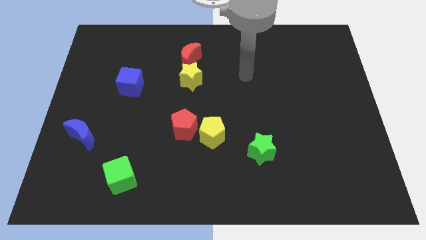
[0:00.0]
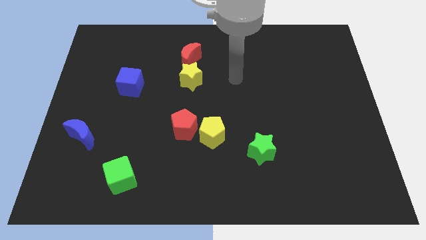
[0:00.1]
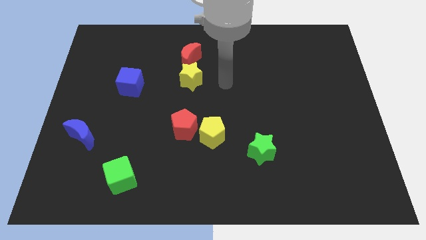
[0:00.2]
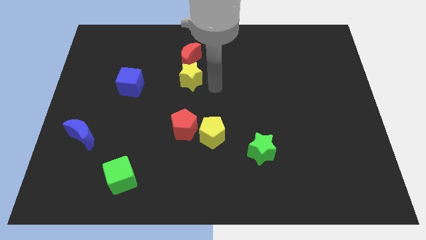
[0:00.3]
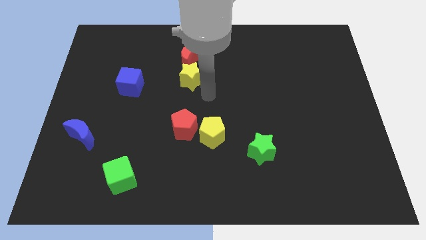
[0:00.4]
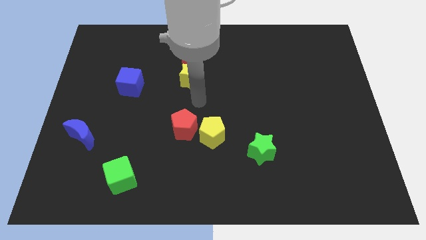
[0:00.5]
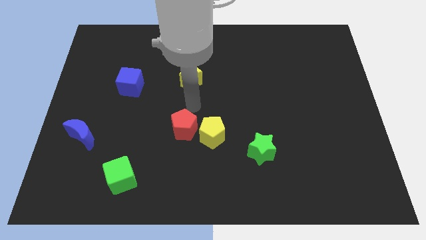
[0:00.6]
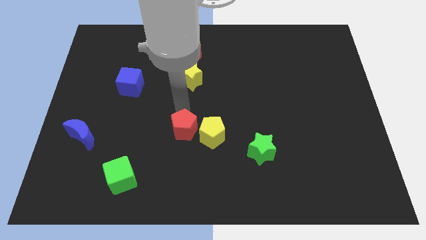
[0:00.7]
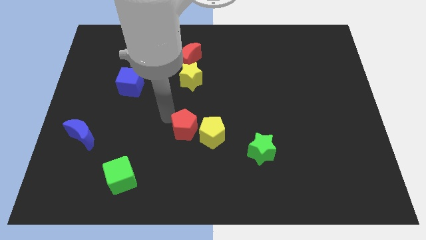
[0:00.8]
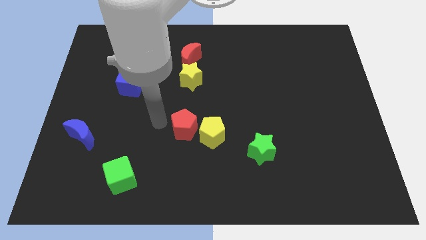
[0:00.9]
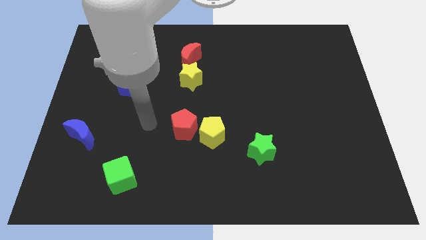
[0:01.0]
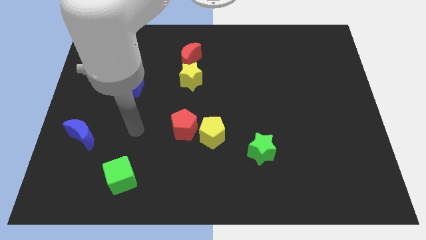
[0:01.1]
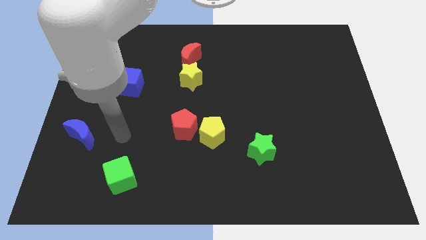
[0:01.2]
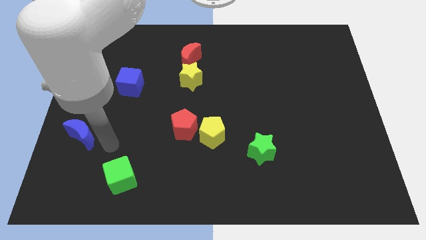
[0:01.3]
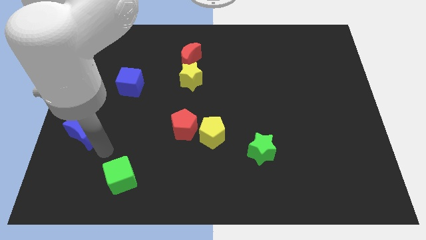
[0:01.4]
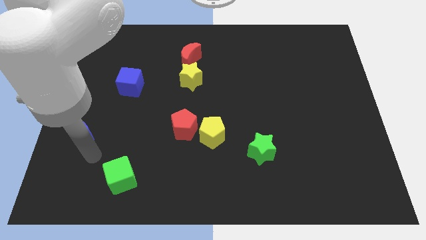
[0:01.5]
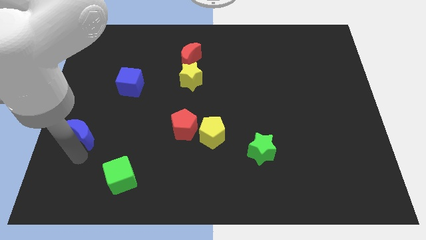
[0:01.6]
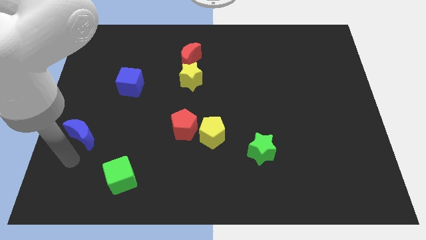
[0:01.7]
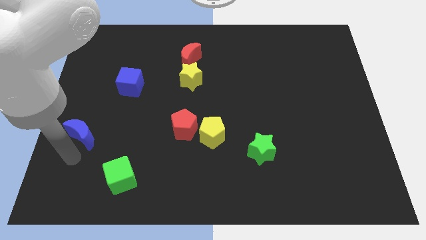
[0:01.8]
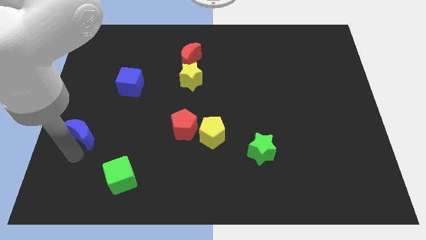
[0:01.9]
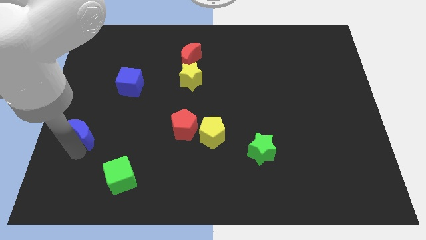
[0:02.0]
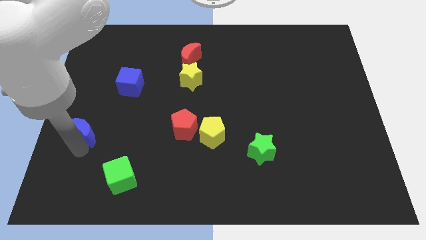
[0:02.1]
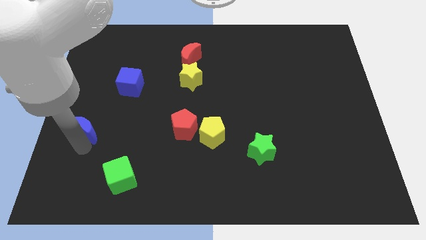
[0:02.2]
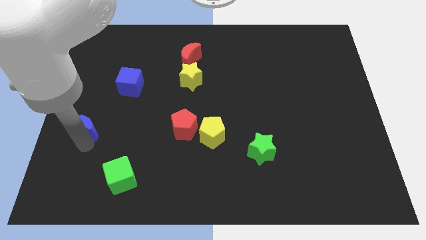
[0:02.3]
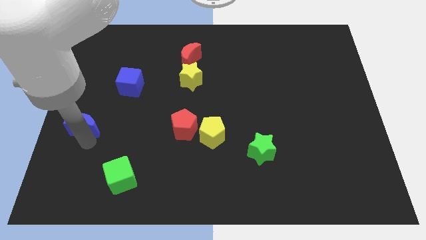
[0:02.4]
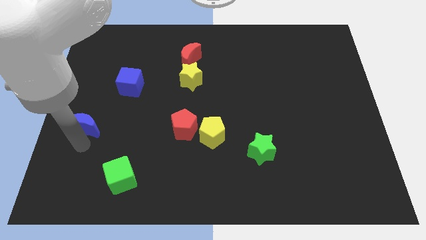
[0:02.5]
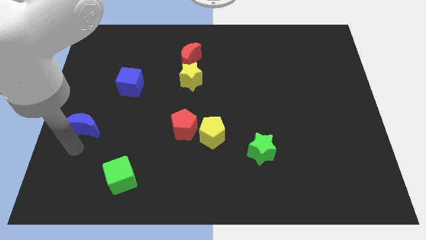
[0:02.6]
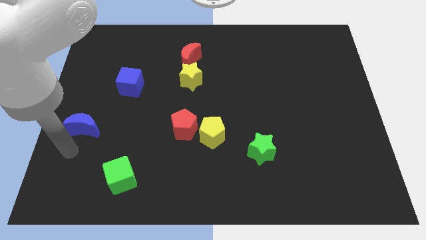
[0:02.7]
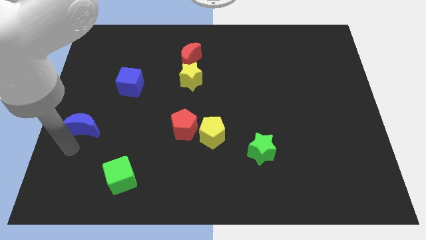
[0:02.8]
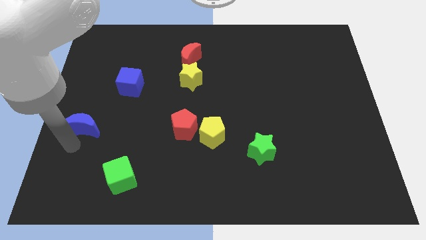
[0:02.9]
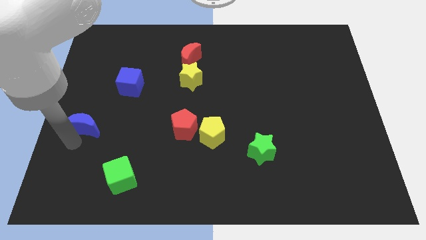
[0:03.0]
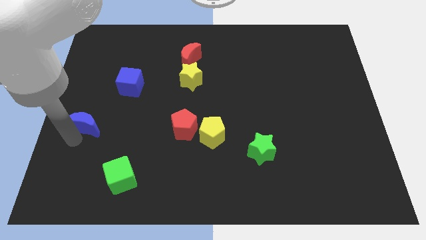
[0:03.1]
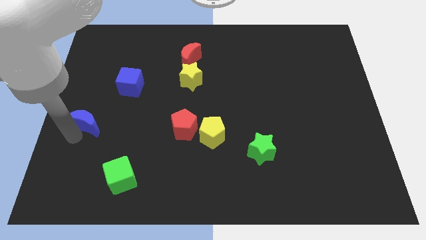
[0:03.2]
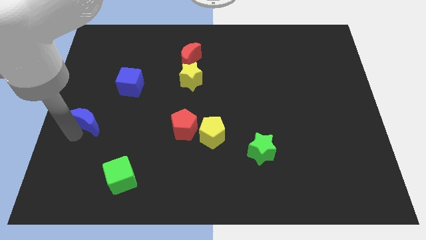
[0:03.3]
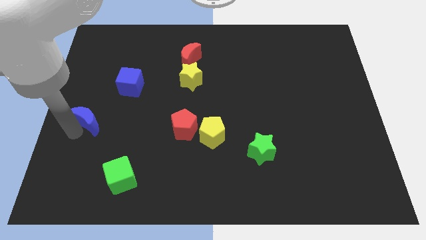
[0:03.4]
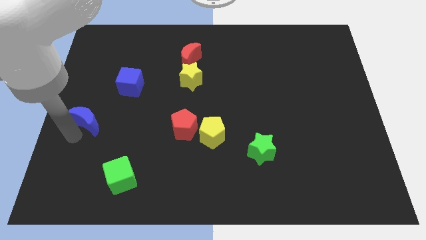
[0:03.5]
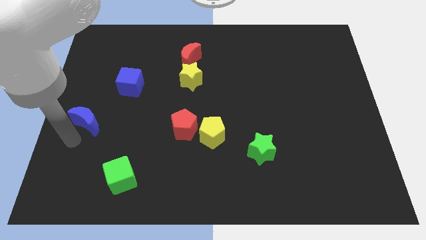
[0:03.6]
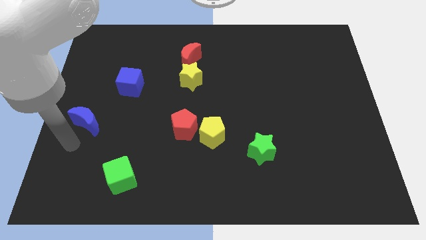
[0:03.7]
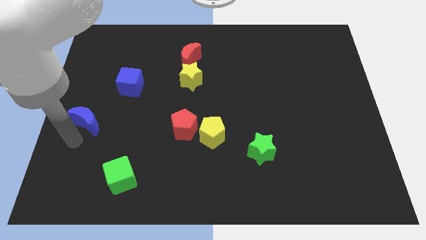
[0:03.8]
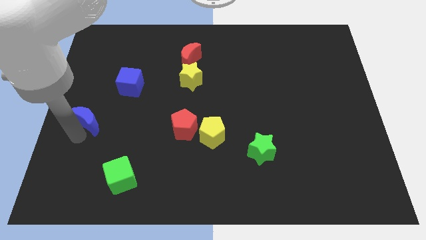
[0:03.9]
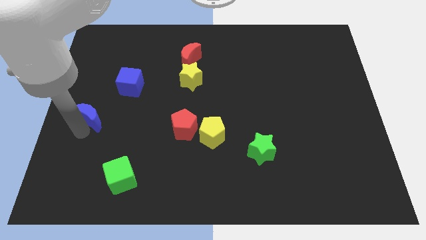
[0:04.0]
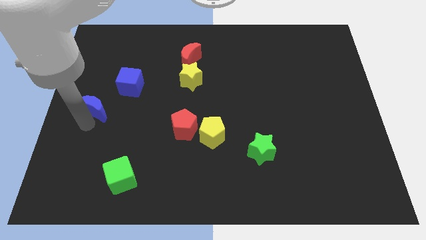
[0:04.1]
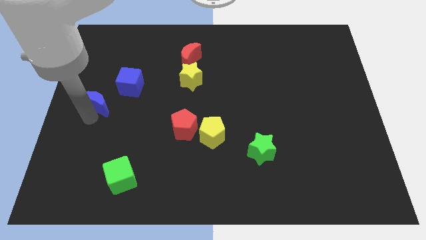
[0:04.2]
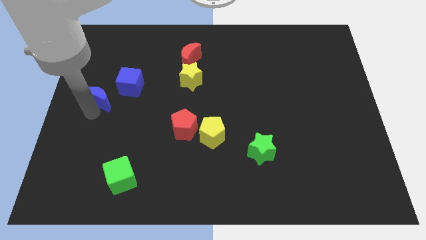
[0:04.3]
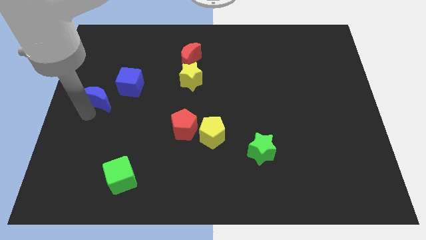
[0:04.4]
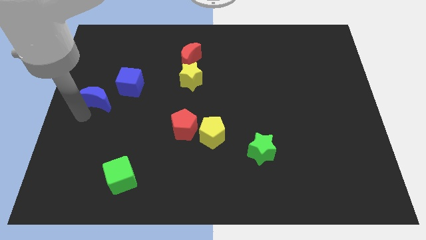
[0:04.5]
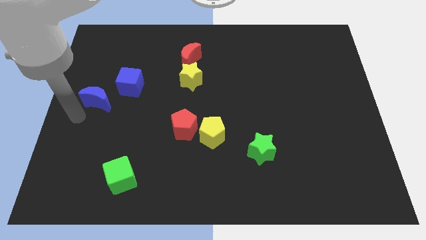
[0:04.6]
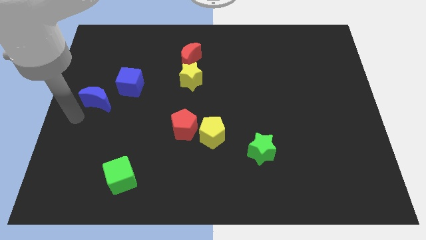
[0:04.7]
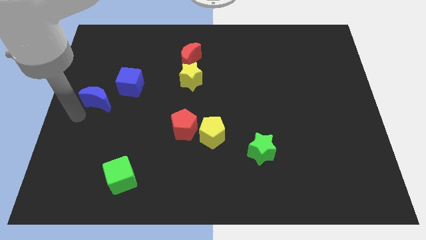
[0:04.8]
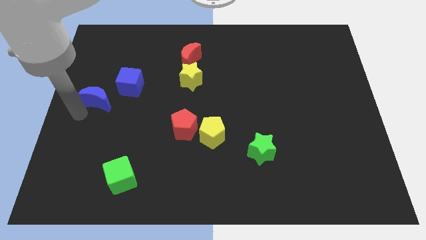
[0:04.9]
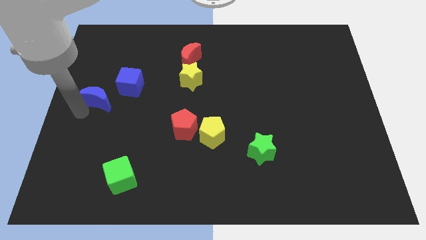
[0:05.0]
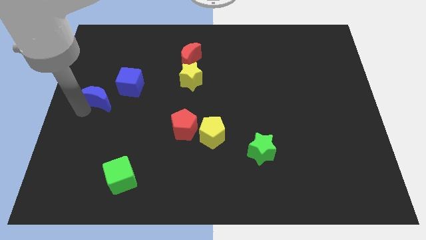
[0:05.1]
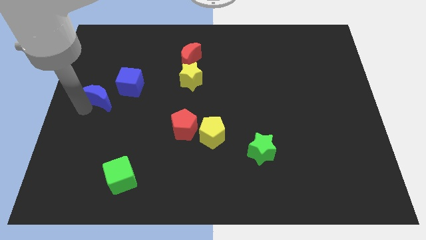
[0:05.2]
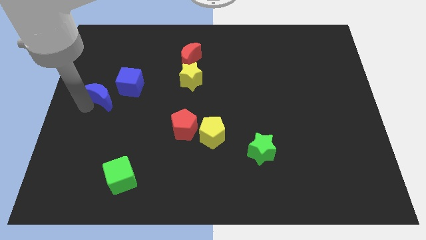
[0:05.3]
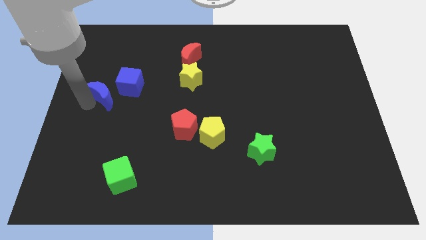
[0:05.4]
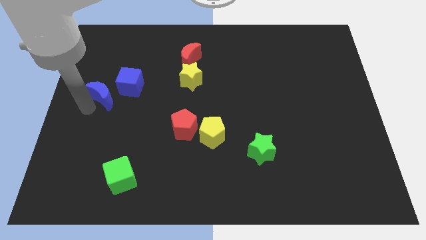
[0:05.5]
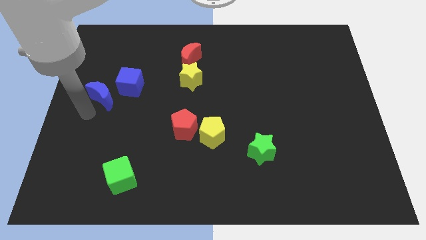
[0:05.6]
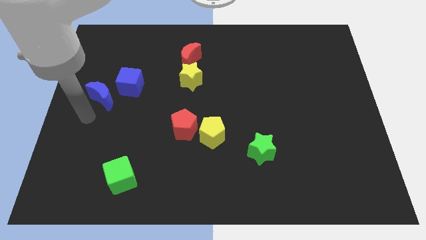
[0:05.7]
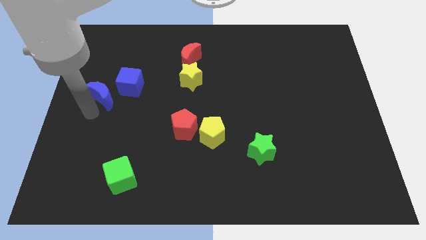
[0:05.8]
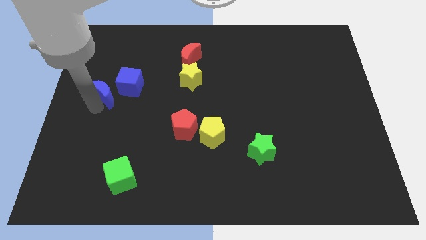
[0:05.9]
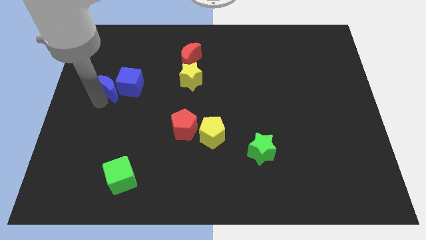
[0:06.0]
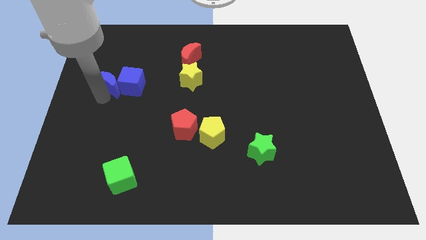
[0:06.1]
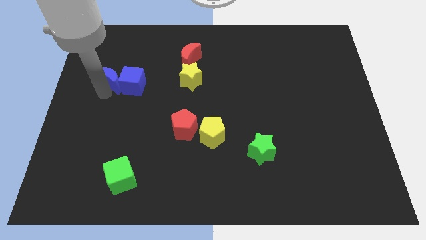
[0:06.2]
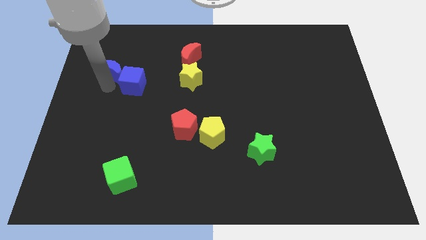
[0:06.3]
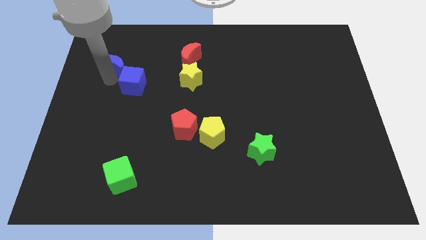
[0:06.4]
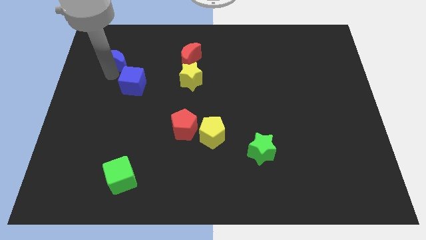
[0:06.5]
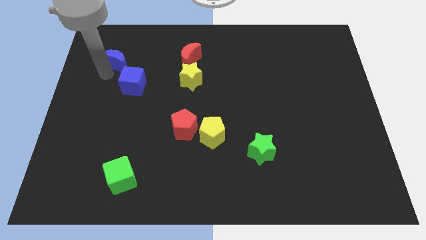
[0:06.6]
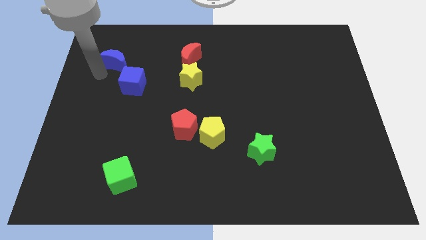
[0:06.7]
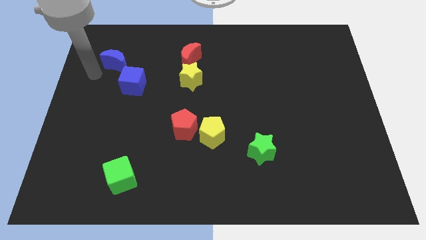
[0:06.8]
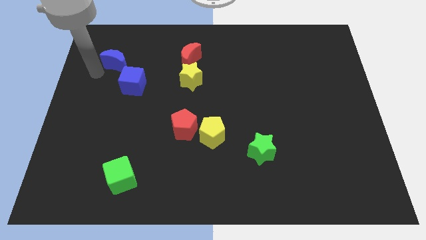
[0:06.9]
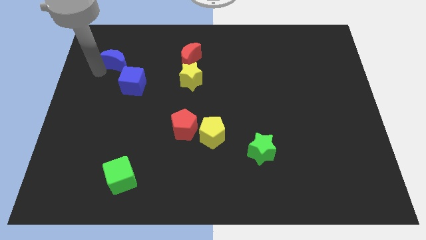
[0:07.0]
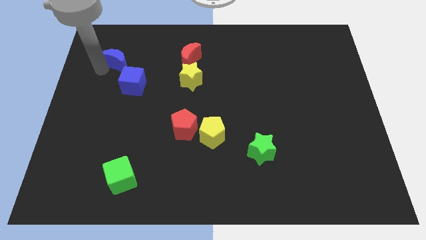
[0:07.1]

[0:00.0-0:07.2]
move the blue moon to the top of the blue cube
